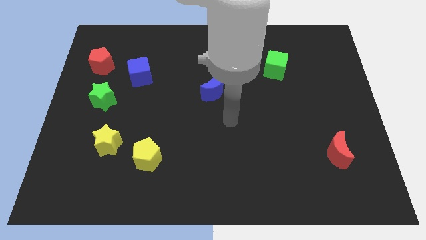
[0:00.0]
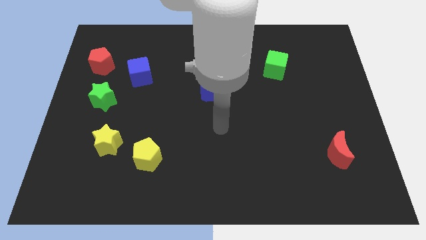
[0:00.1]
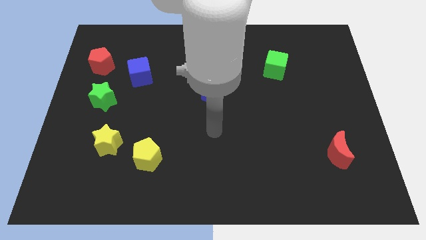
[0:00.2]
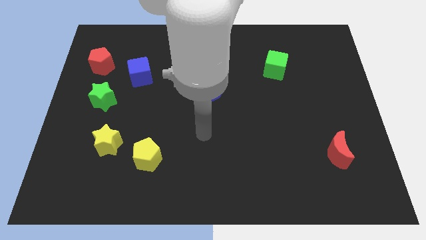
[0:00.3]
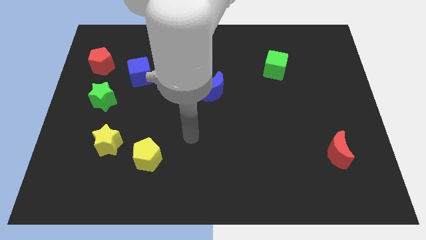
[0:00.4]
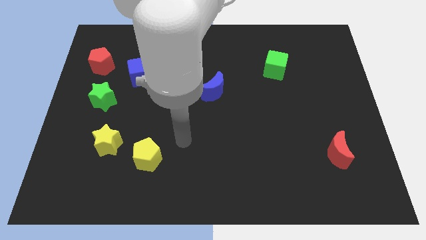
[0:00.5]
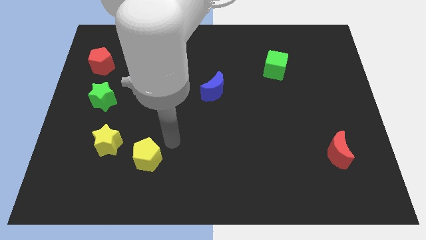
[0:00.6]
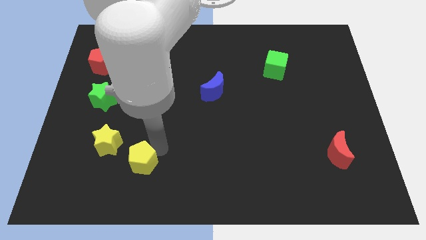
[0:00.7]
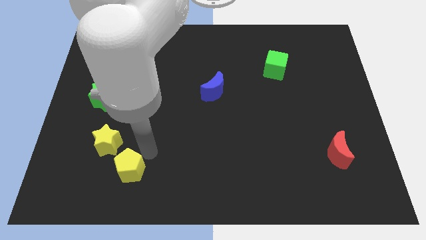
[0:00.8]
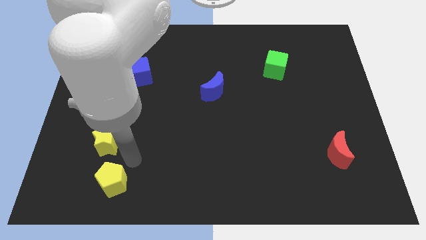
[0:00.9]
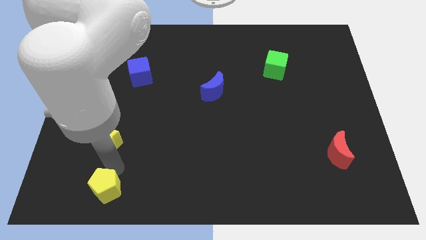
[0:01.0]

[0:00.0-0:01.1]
pull the yellow star apart from the yellow pentagon

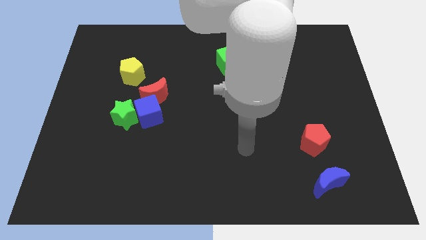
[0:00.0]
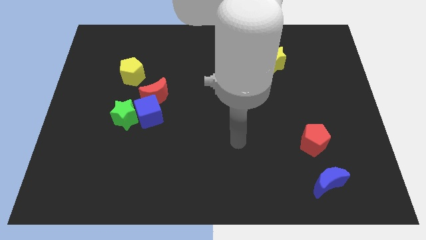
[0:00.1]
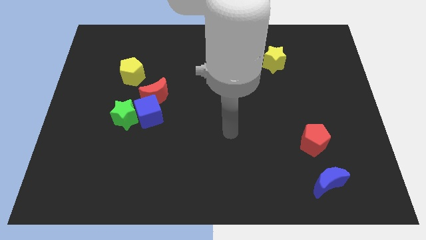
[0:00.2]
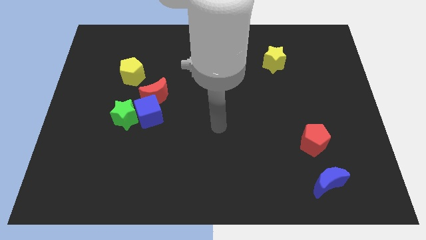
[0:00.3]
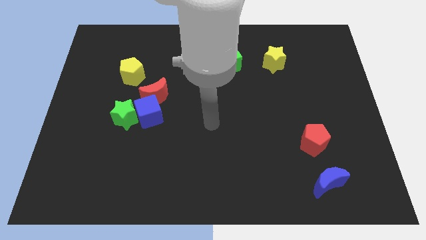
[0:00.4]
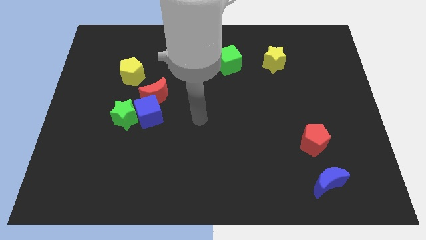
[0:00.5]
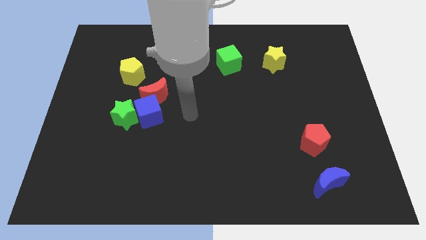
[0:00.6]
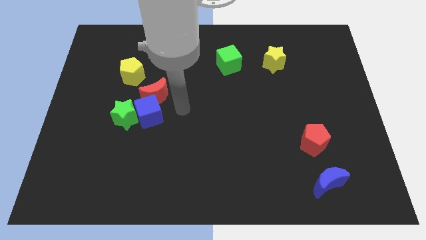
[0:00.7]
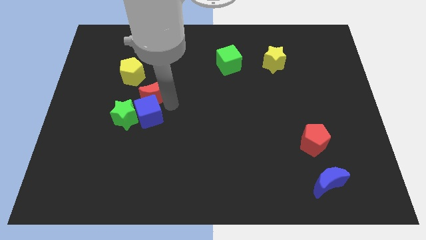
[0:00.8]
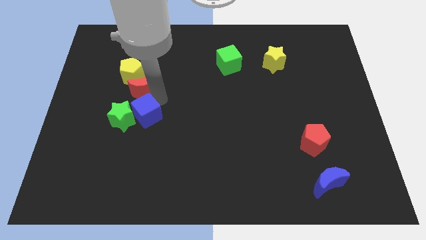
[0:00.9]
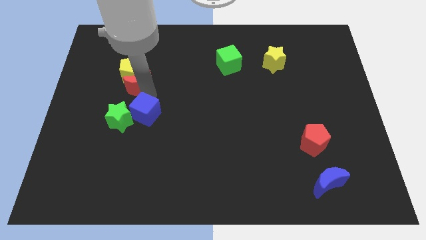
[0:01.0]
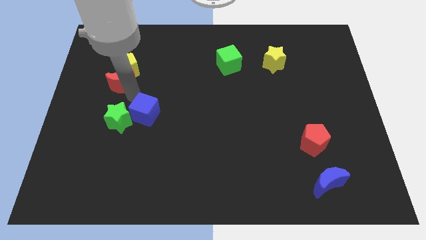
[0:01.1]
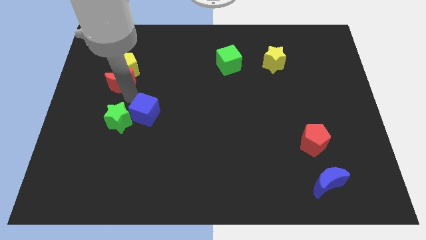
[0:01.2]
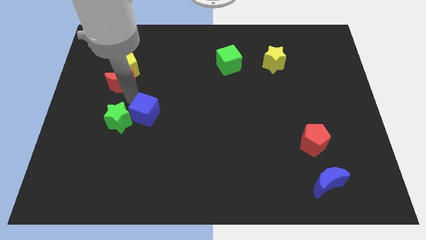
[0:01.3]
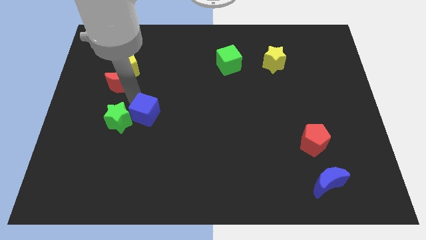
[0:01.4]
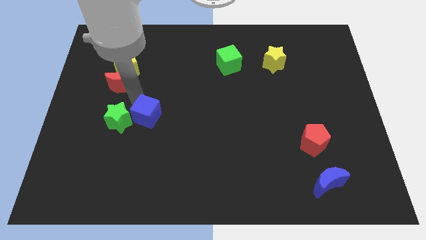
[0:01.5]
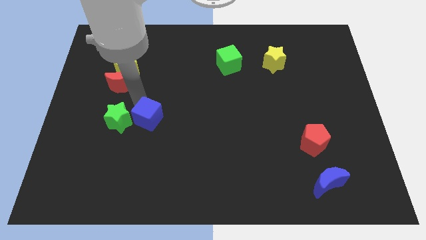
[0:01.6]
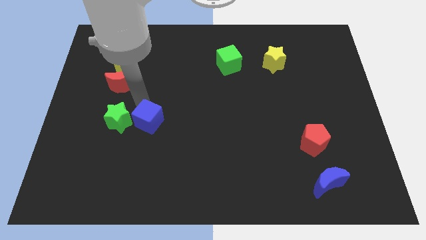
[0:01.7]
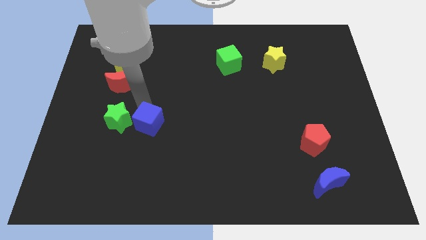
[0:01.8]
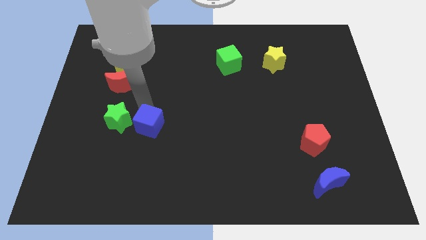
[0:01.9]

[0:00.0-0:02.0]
pull the blue cube apart from the green star and red moon

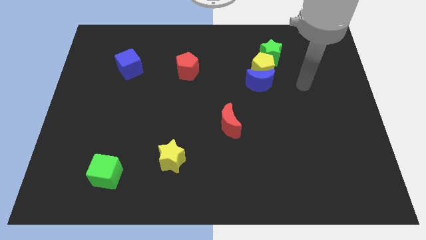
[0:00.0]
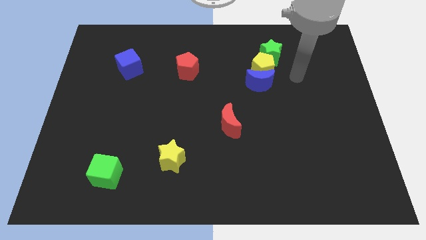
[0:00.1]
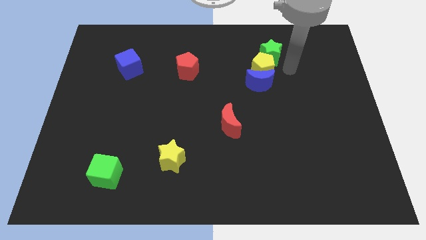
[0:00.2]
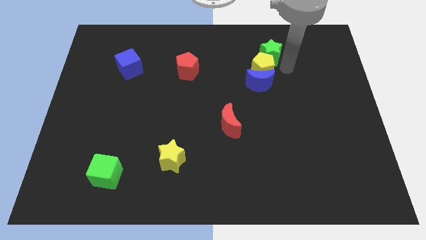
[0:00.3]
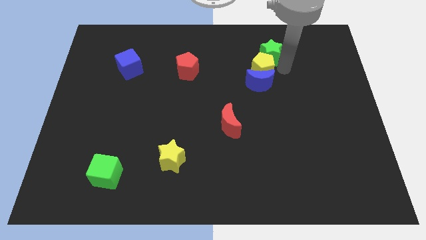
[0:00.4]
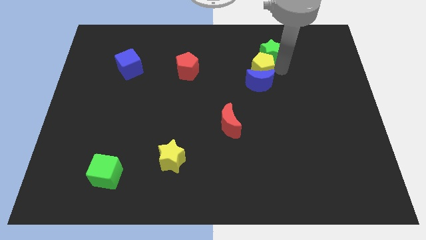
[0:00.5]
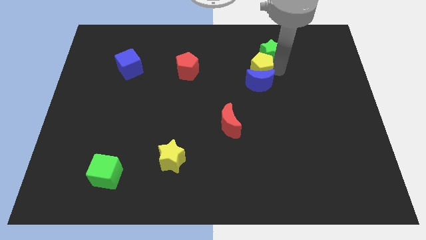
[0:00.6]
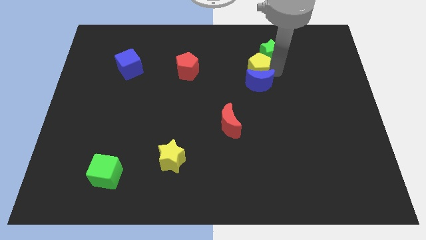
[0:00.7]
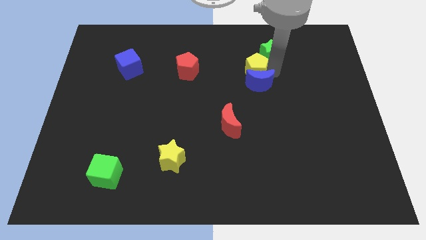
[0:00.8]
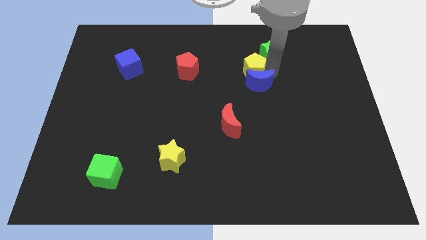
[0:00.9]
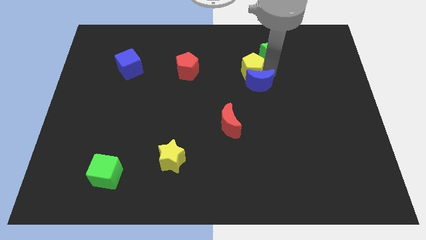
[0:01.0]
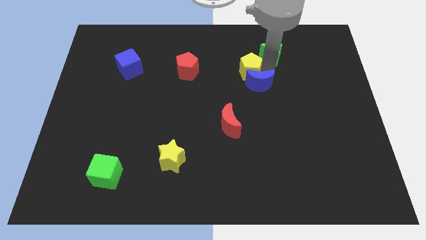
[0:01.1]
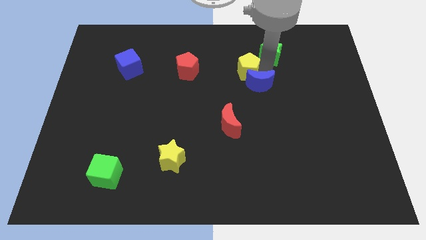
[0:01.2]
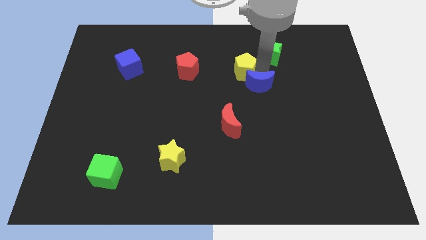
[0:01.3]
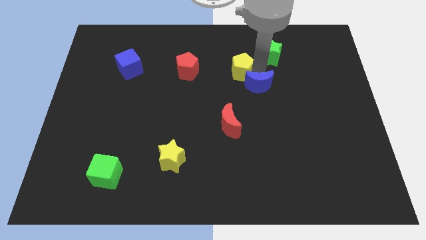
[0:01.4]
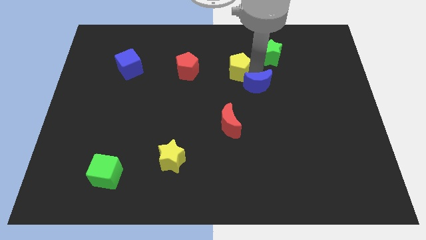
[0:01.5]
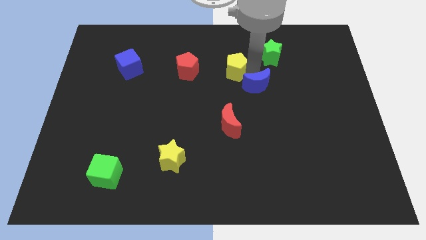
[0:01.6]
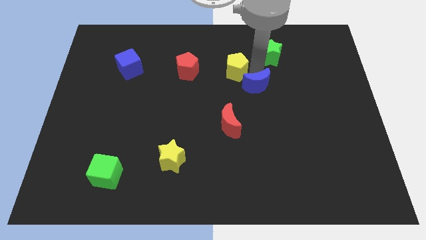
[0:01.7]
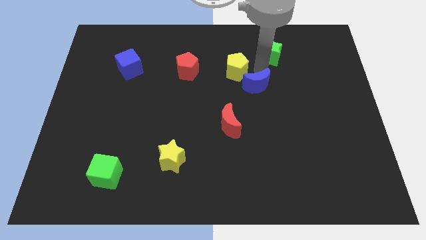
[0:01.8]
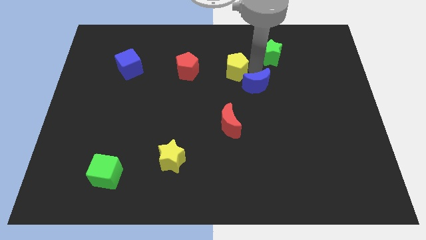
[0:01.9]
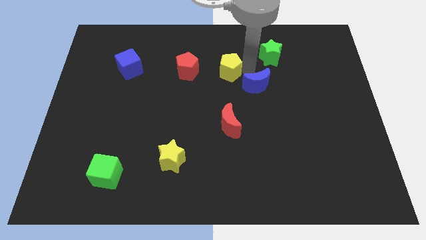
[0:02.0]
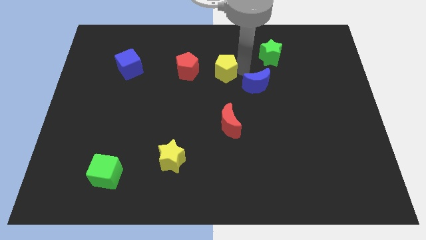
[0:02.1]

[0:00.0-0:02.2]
separate the yellow pentagon from the blue moon and green star

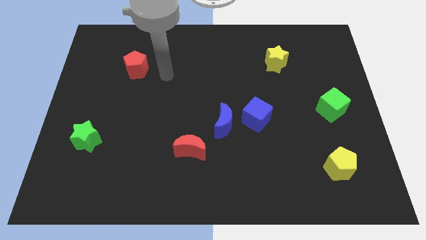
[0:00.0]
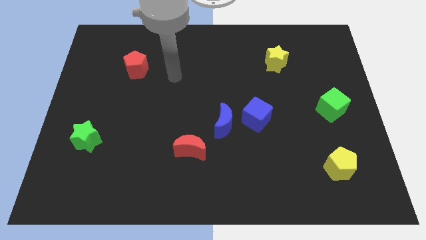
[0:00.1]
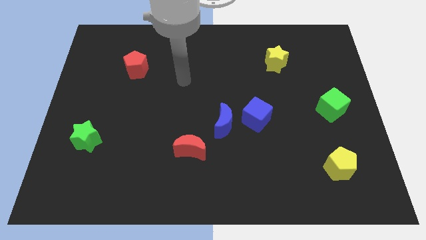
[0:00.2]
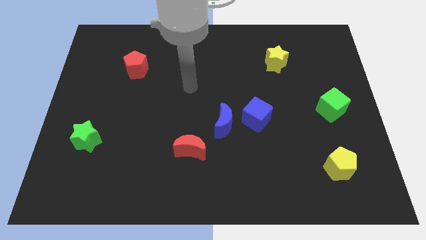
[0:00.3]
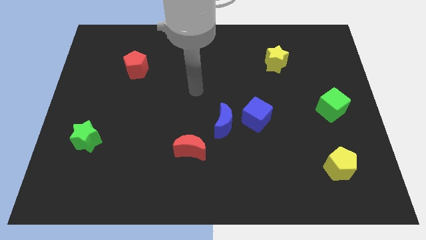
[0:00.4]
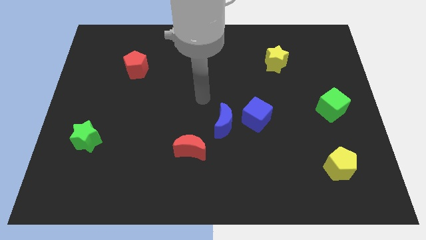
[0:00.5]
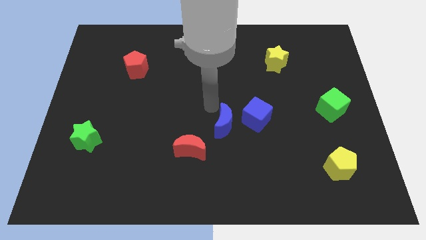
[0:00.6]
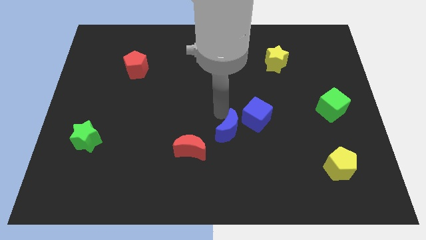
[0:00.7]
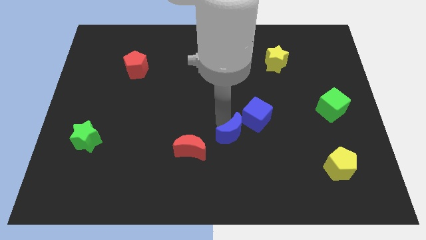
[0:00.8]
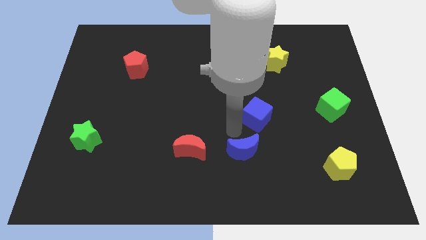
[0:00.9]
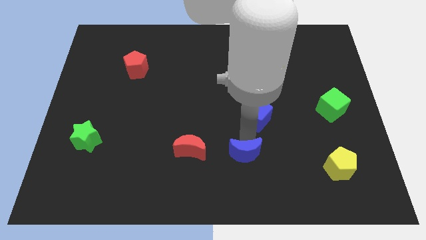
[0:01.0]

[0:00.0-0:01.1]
move the blue cube away from the blue moon

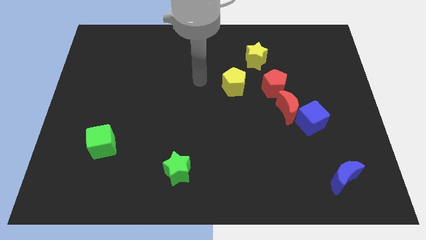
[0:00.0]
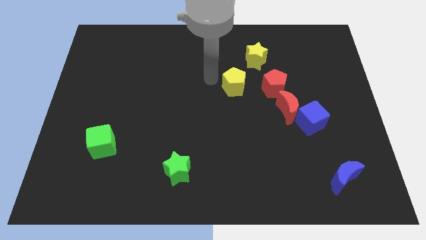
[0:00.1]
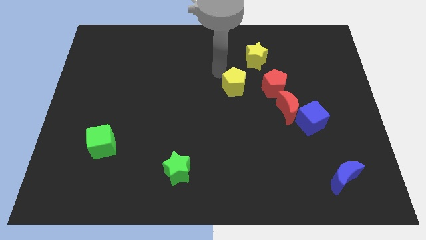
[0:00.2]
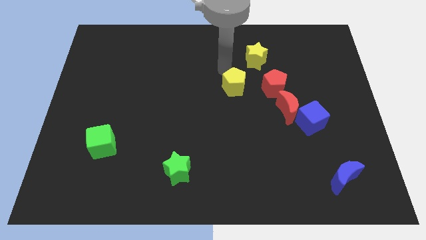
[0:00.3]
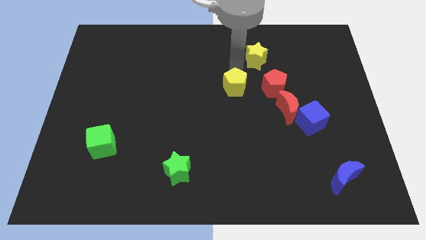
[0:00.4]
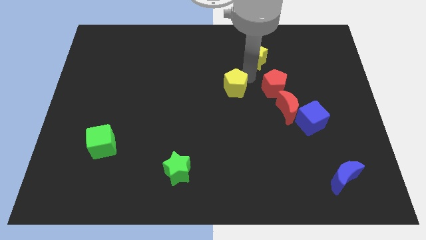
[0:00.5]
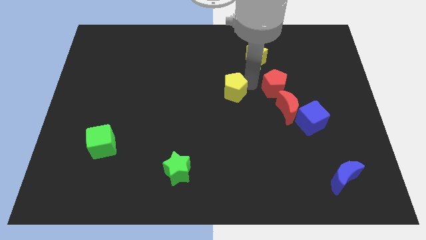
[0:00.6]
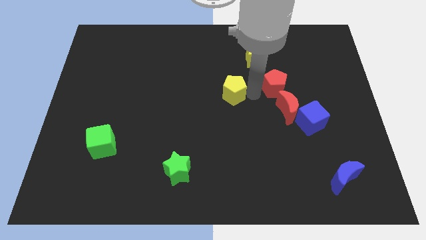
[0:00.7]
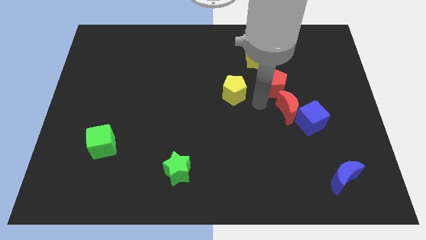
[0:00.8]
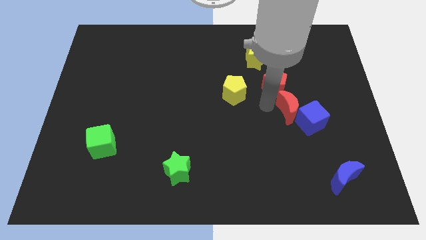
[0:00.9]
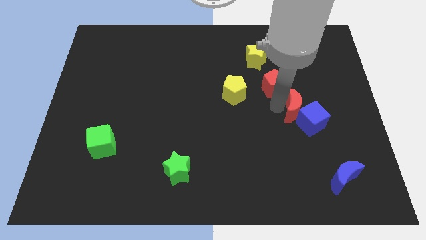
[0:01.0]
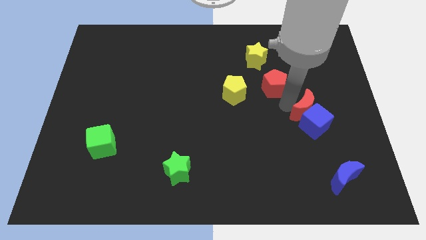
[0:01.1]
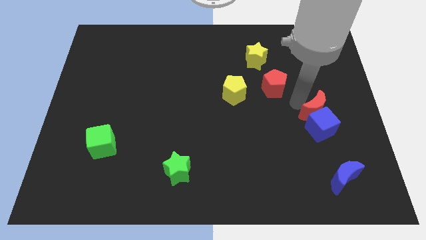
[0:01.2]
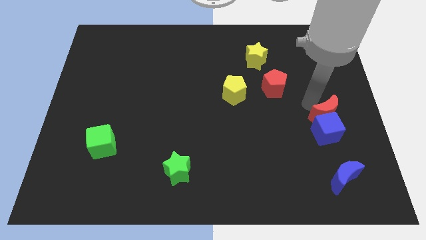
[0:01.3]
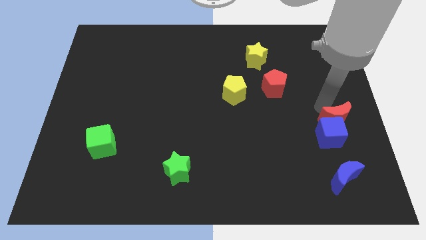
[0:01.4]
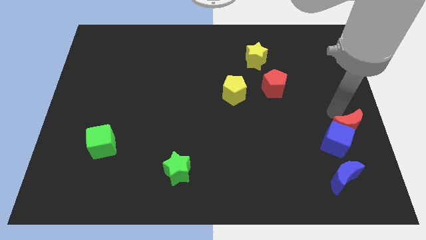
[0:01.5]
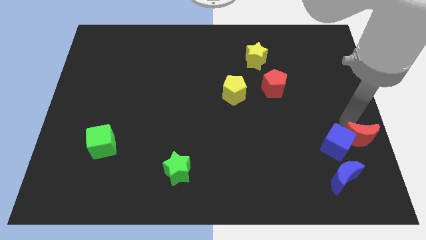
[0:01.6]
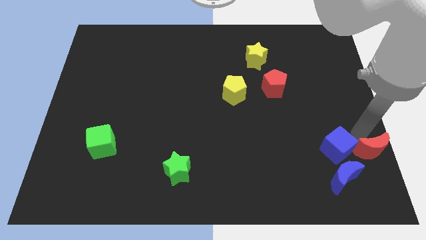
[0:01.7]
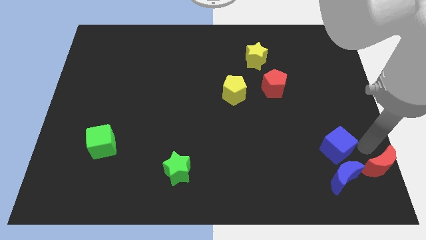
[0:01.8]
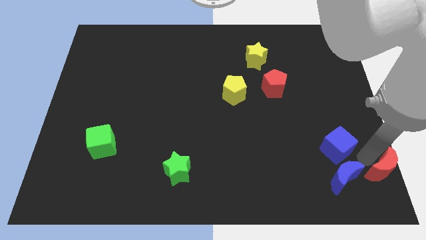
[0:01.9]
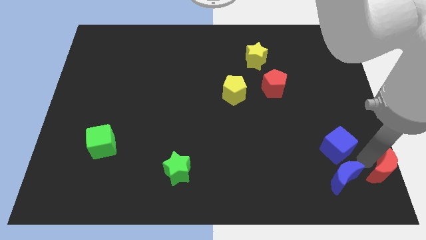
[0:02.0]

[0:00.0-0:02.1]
pull the blue cube apart from the red moon

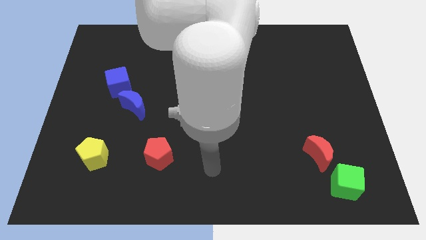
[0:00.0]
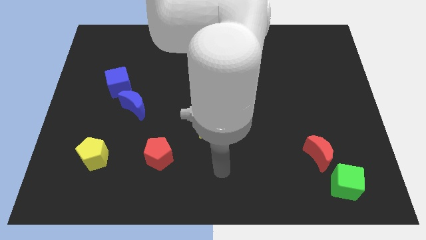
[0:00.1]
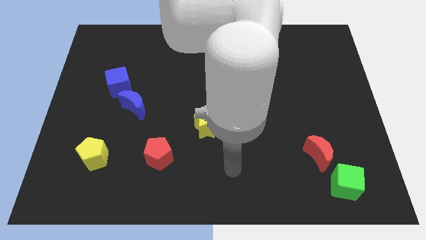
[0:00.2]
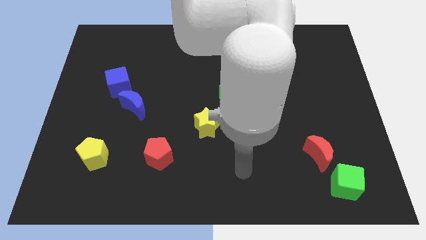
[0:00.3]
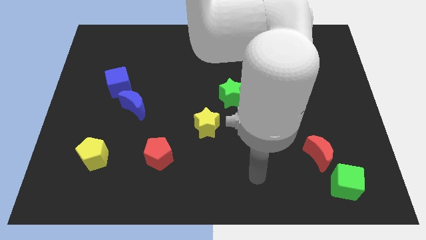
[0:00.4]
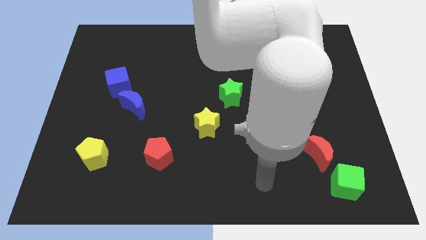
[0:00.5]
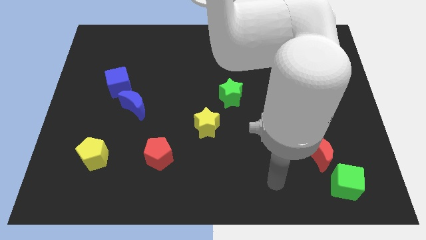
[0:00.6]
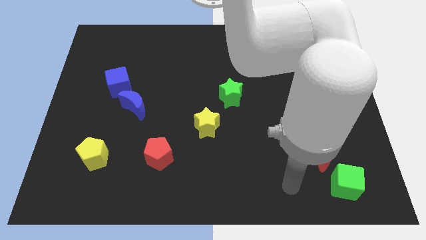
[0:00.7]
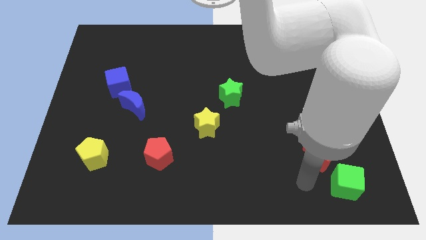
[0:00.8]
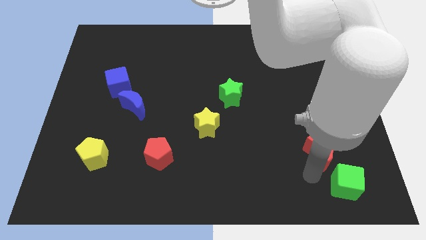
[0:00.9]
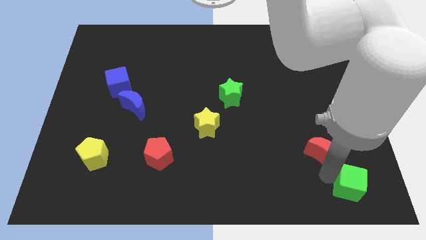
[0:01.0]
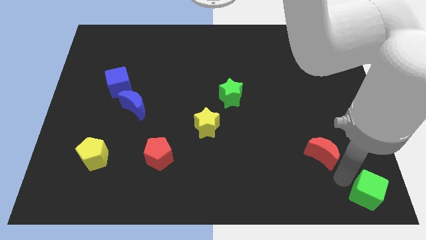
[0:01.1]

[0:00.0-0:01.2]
pull the red moon apart from the green cube
